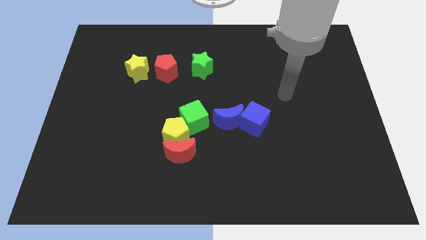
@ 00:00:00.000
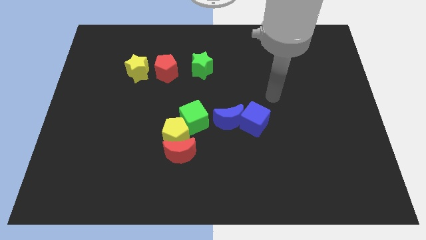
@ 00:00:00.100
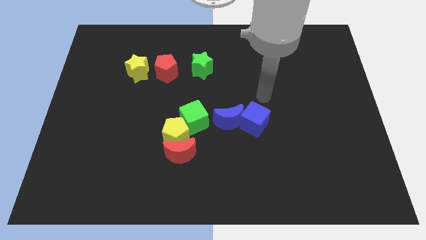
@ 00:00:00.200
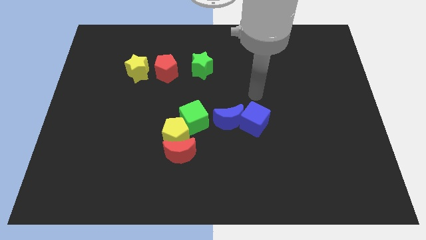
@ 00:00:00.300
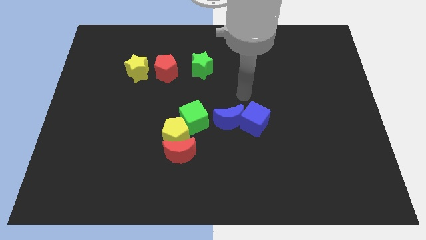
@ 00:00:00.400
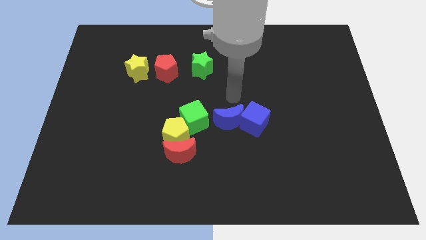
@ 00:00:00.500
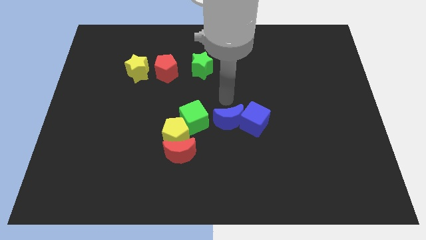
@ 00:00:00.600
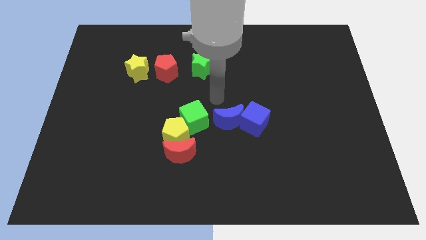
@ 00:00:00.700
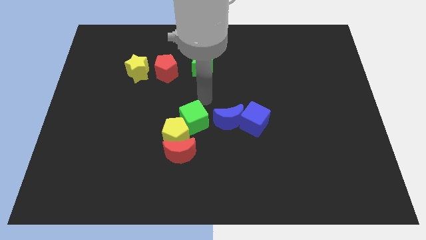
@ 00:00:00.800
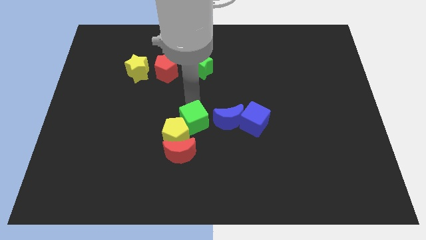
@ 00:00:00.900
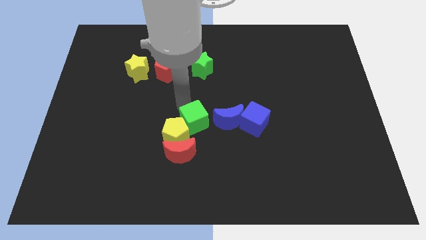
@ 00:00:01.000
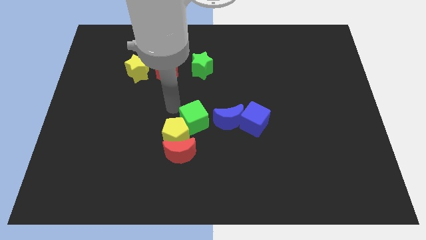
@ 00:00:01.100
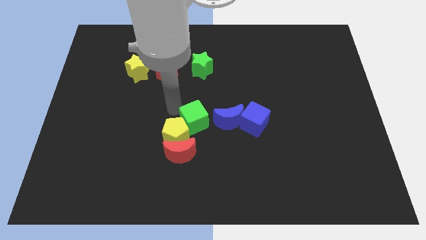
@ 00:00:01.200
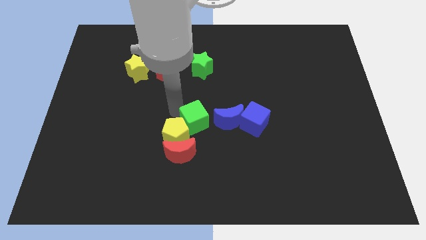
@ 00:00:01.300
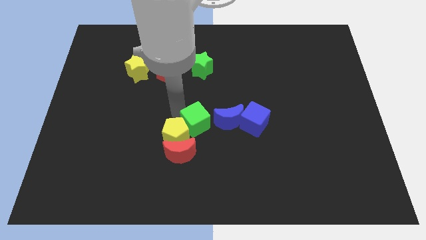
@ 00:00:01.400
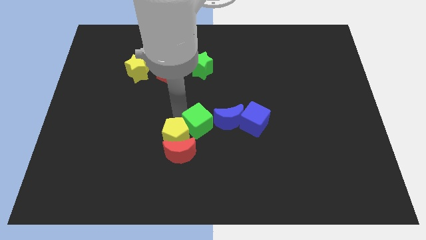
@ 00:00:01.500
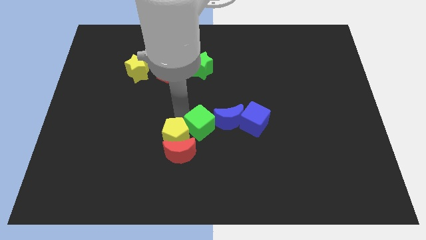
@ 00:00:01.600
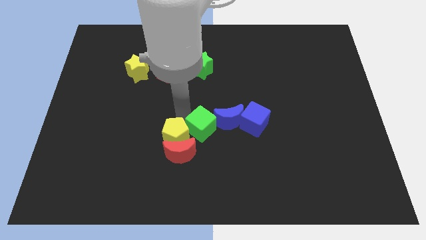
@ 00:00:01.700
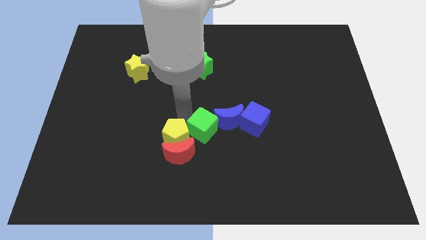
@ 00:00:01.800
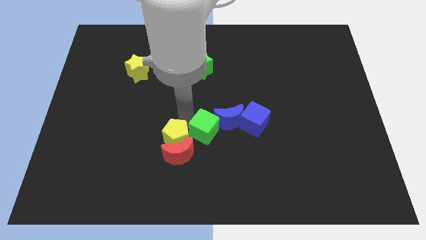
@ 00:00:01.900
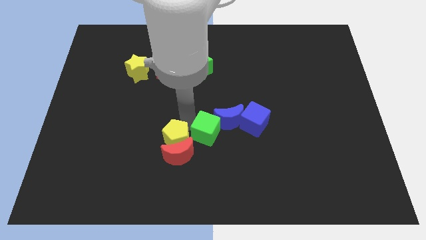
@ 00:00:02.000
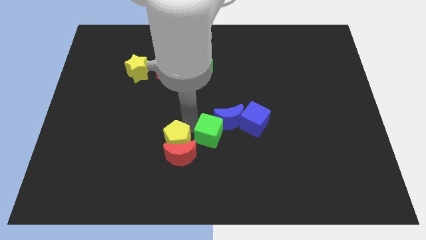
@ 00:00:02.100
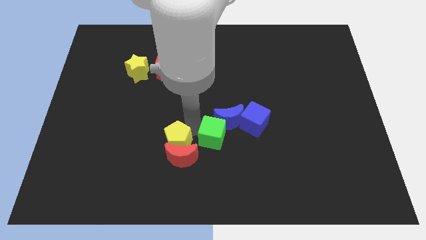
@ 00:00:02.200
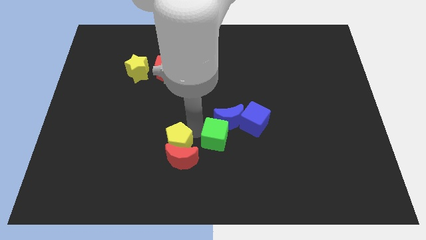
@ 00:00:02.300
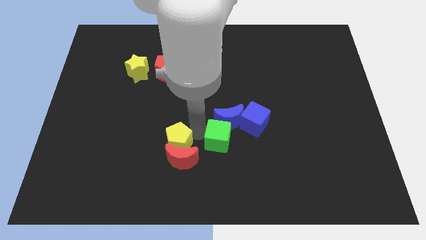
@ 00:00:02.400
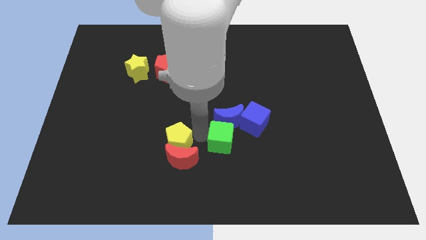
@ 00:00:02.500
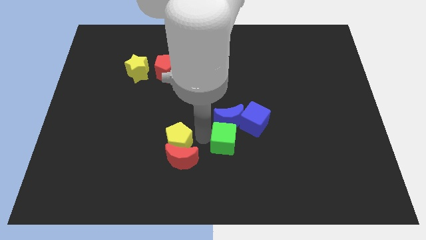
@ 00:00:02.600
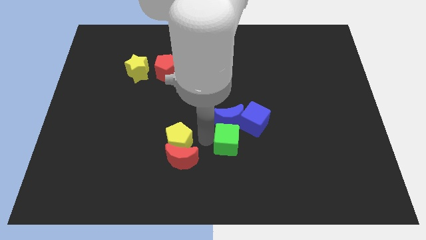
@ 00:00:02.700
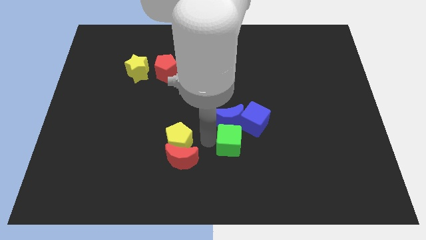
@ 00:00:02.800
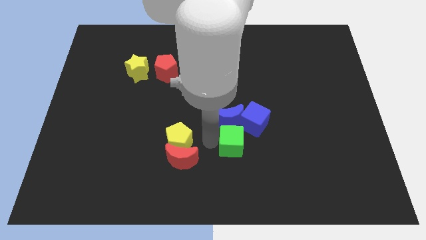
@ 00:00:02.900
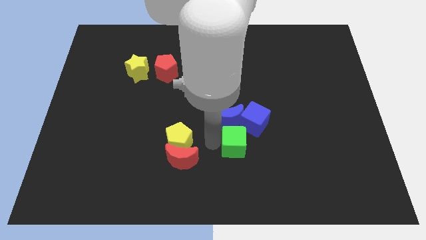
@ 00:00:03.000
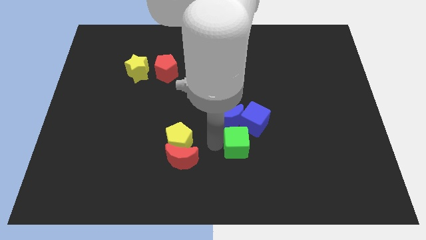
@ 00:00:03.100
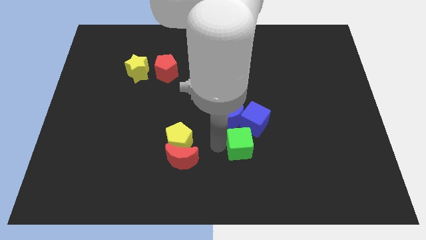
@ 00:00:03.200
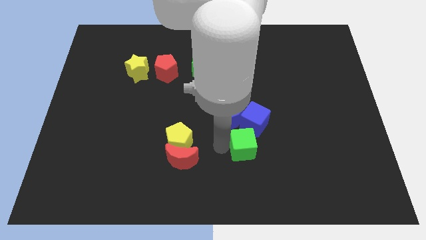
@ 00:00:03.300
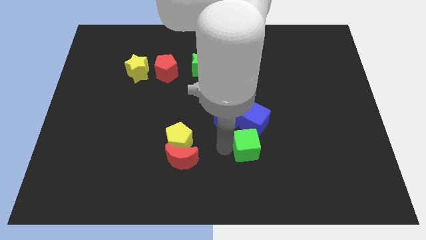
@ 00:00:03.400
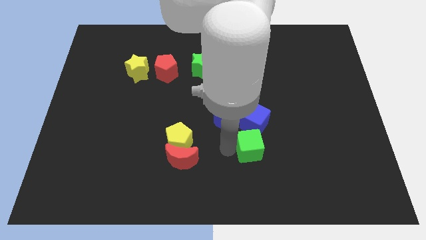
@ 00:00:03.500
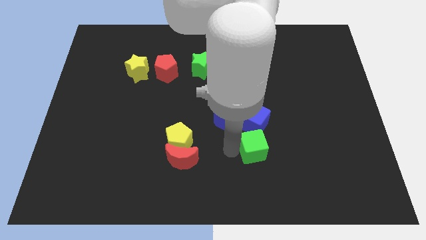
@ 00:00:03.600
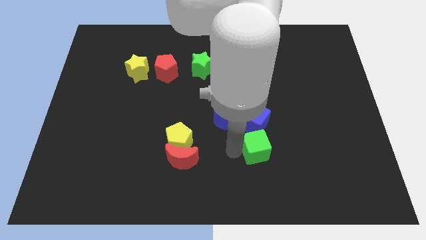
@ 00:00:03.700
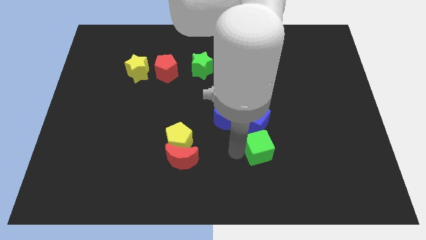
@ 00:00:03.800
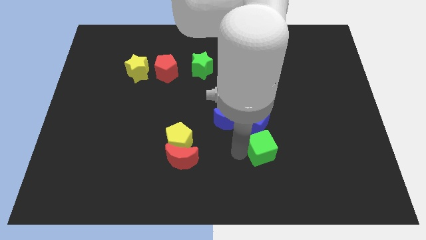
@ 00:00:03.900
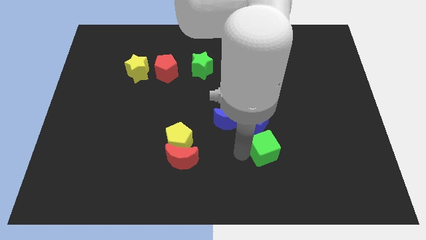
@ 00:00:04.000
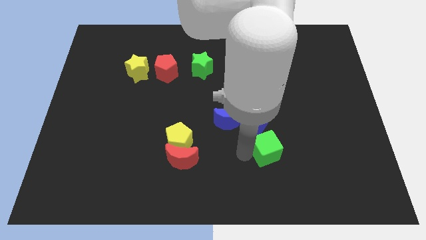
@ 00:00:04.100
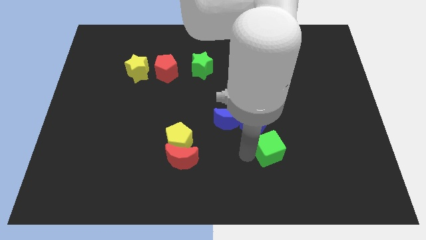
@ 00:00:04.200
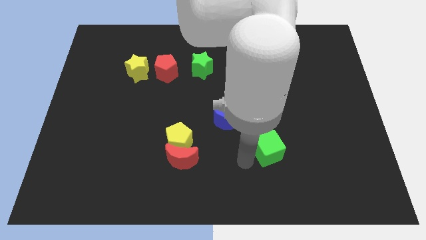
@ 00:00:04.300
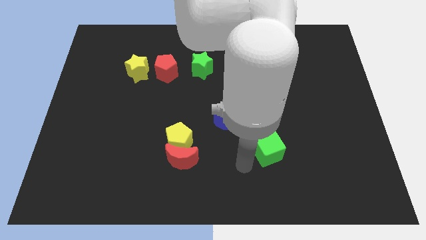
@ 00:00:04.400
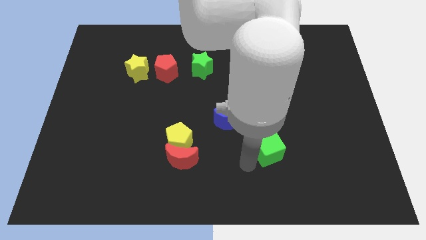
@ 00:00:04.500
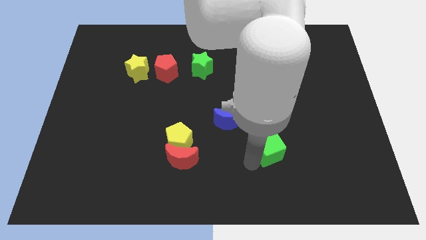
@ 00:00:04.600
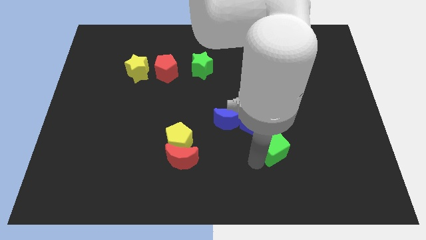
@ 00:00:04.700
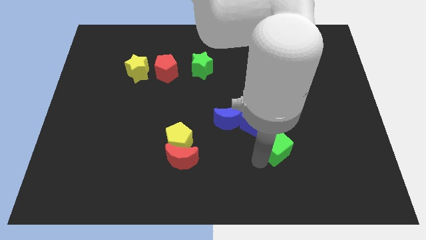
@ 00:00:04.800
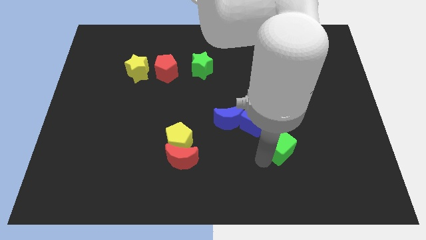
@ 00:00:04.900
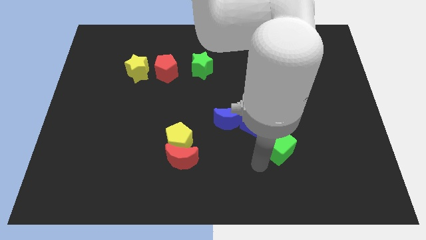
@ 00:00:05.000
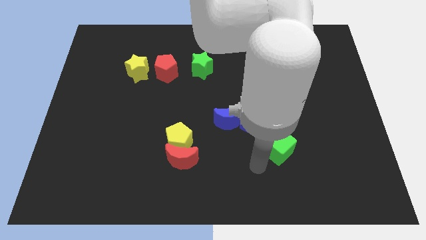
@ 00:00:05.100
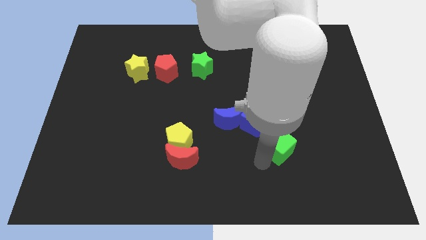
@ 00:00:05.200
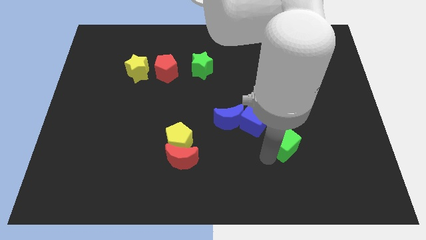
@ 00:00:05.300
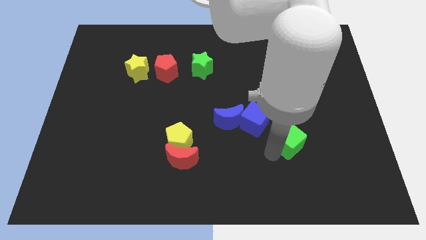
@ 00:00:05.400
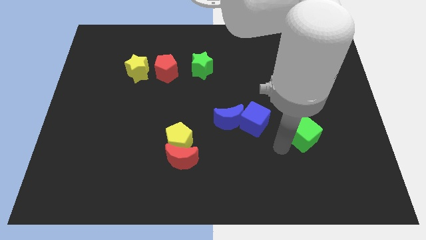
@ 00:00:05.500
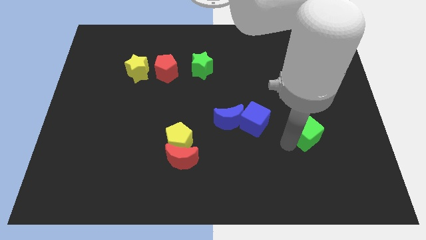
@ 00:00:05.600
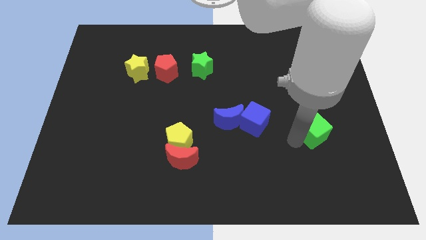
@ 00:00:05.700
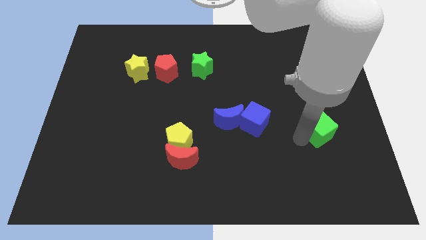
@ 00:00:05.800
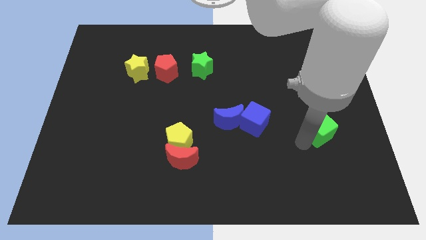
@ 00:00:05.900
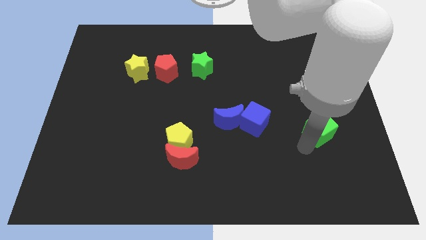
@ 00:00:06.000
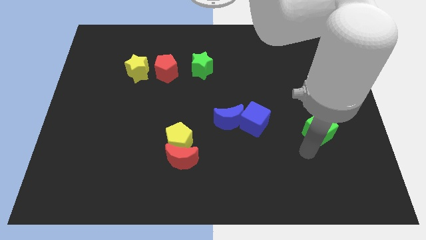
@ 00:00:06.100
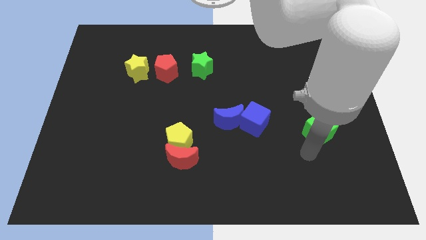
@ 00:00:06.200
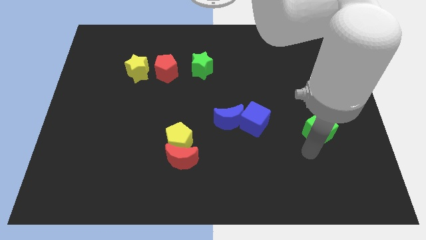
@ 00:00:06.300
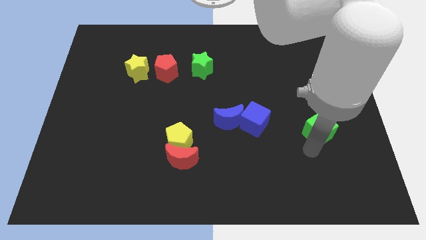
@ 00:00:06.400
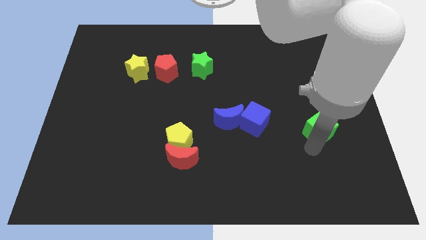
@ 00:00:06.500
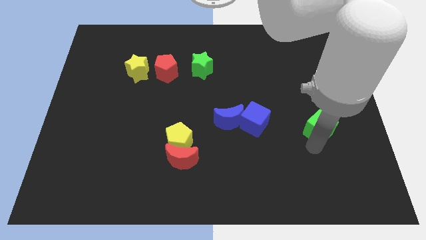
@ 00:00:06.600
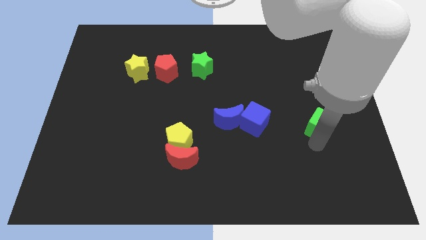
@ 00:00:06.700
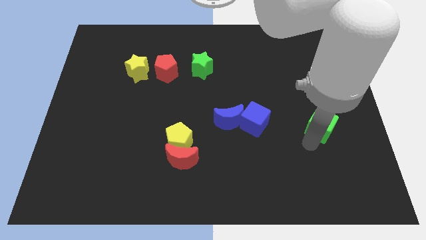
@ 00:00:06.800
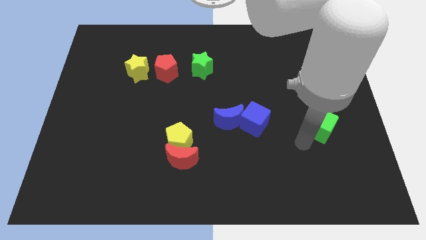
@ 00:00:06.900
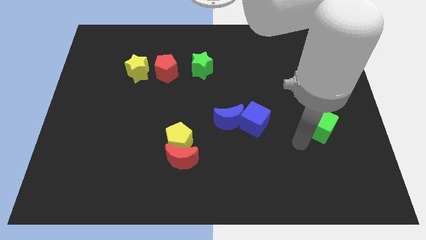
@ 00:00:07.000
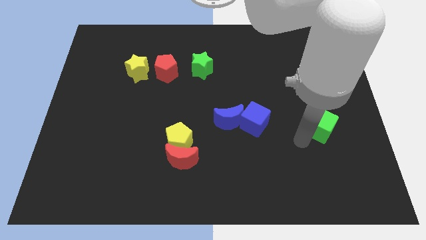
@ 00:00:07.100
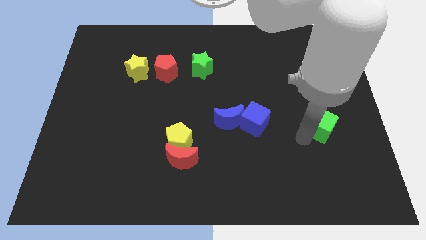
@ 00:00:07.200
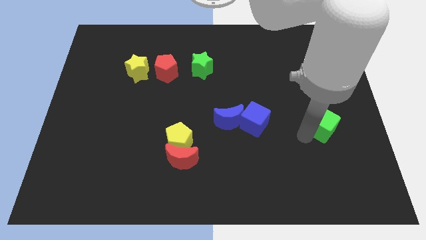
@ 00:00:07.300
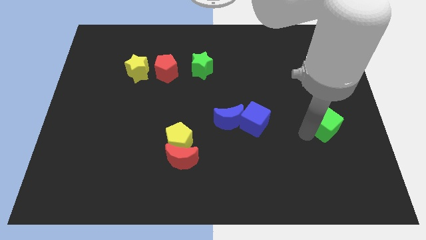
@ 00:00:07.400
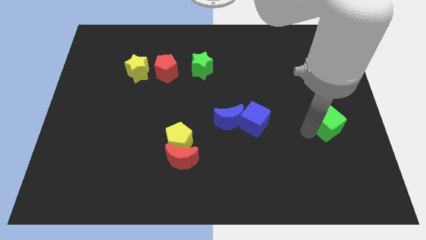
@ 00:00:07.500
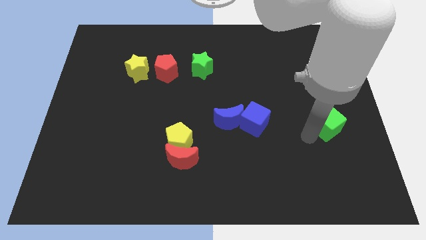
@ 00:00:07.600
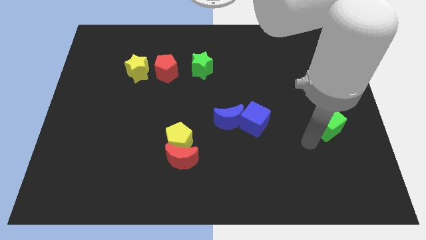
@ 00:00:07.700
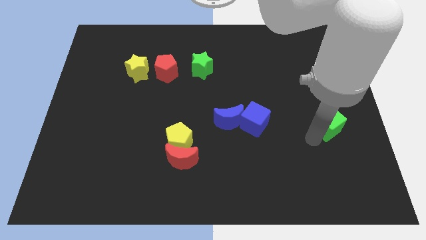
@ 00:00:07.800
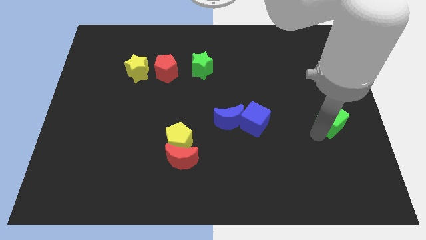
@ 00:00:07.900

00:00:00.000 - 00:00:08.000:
move the green cube to the center right
